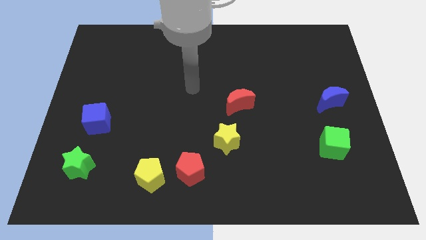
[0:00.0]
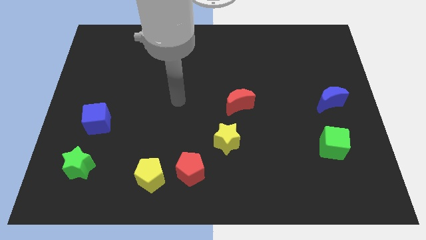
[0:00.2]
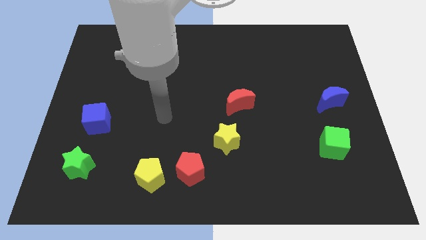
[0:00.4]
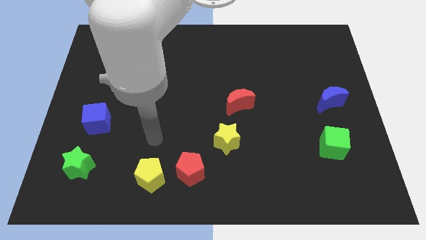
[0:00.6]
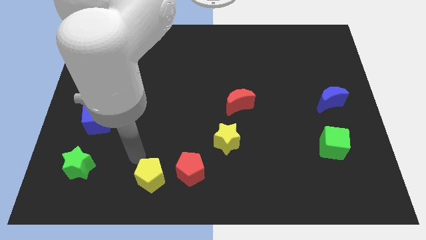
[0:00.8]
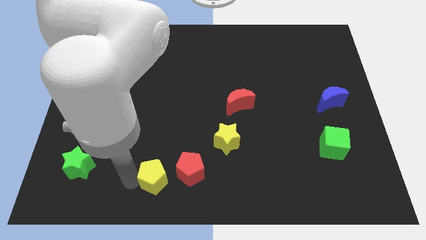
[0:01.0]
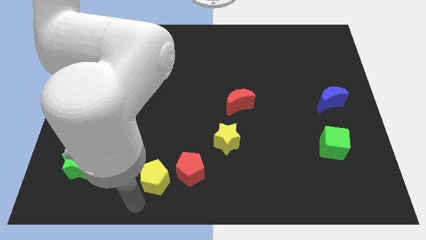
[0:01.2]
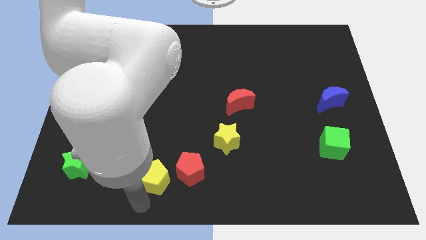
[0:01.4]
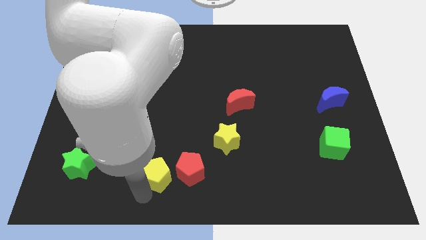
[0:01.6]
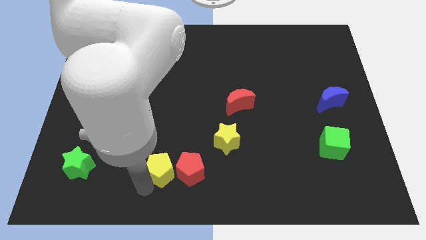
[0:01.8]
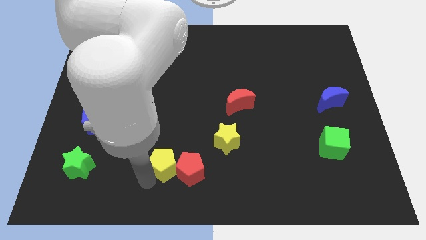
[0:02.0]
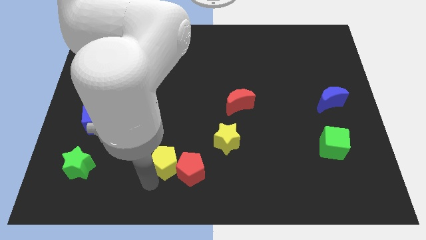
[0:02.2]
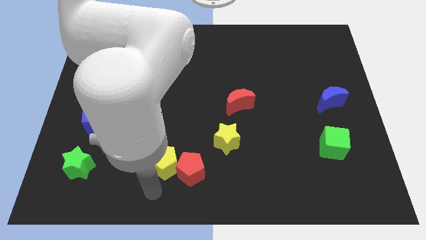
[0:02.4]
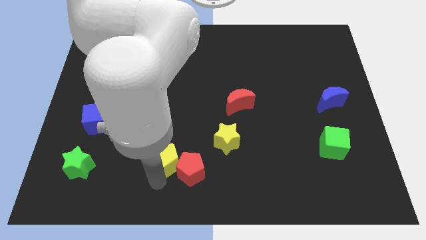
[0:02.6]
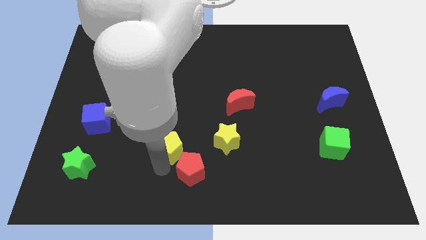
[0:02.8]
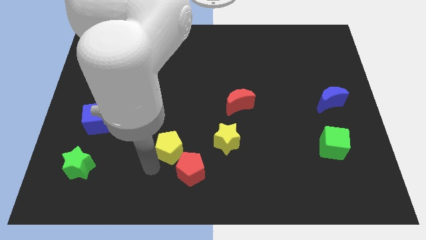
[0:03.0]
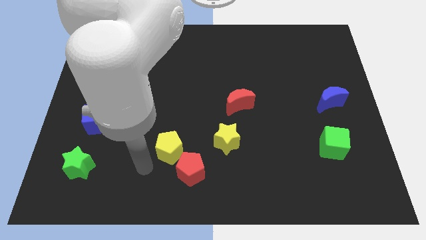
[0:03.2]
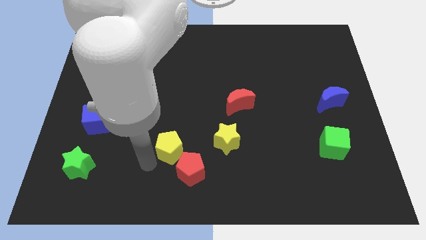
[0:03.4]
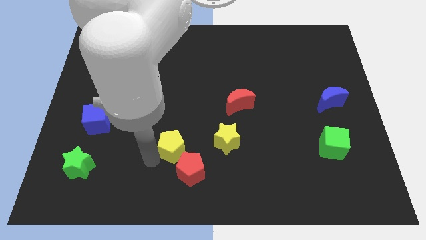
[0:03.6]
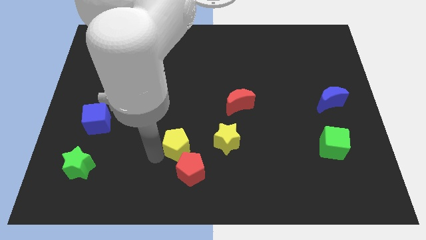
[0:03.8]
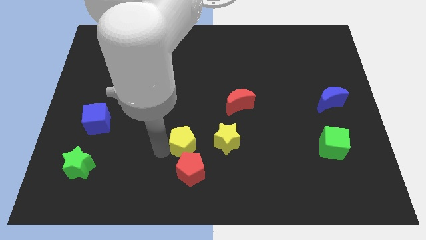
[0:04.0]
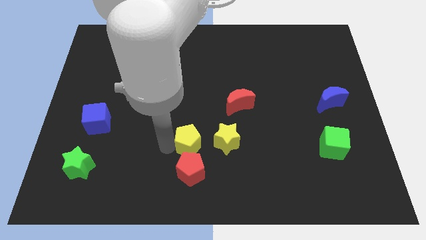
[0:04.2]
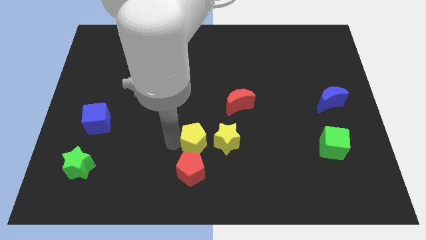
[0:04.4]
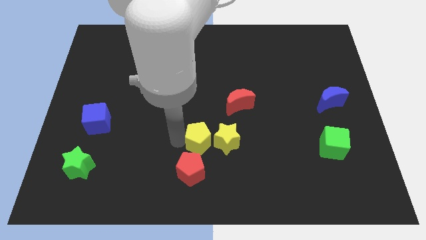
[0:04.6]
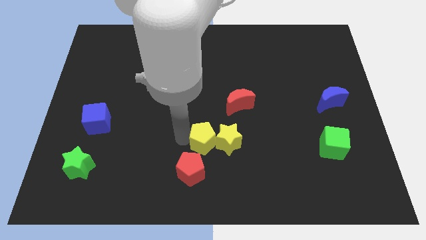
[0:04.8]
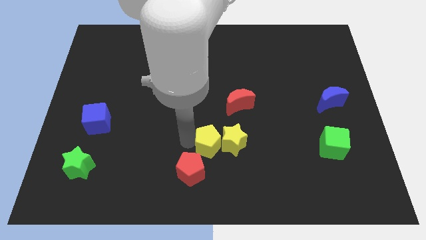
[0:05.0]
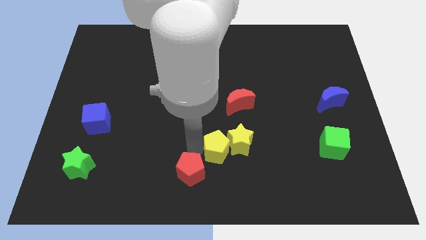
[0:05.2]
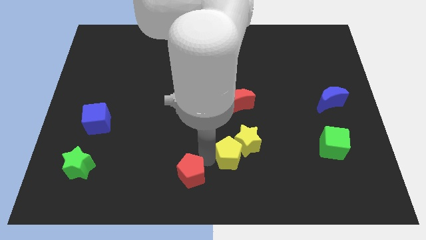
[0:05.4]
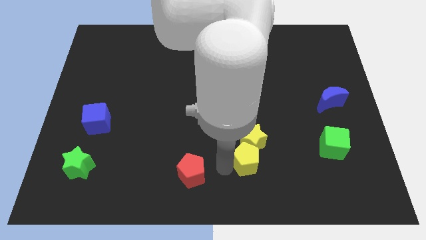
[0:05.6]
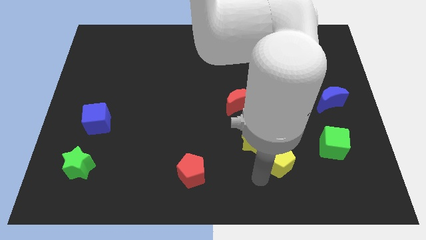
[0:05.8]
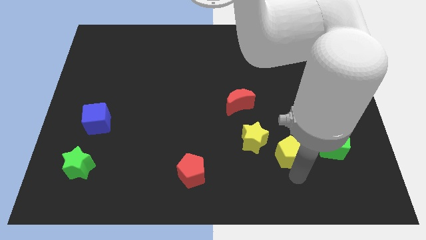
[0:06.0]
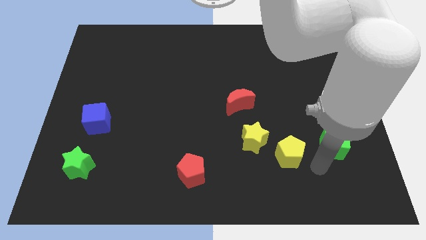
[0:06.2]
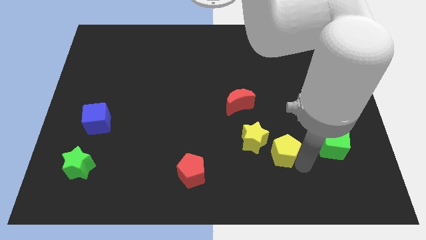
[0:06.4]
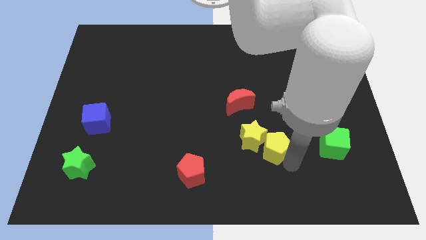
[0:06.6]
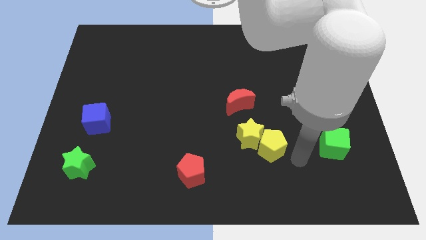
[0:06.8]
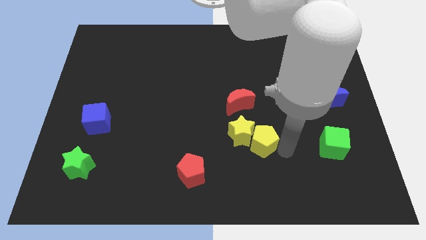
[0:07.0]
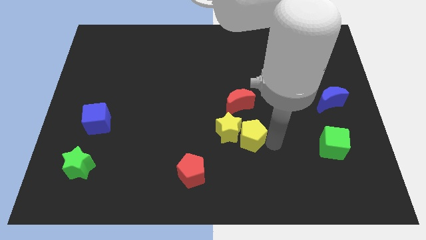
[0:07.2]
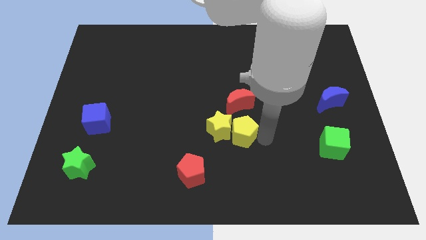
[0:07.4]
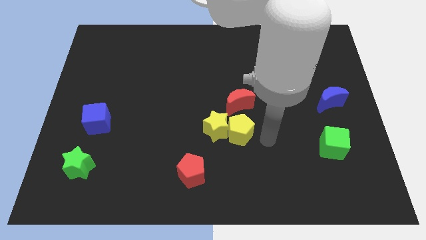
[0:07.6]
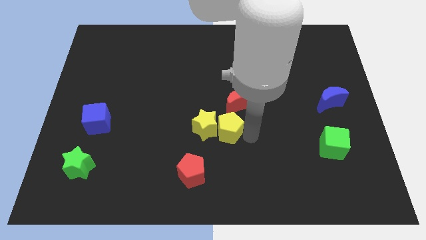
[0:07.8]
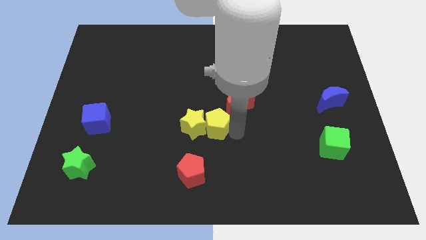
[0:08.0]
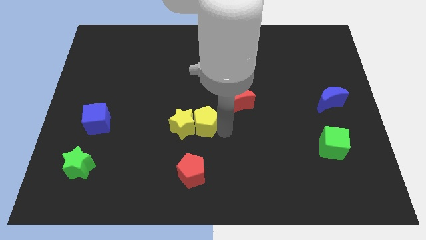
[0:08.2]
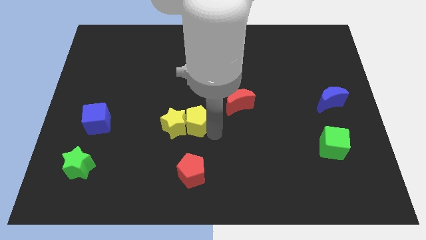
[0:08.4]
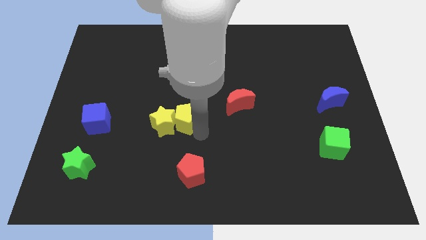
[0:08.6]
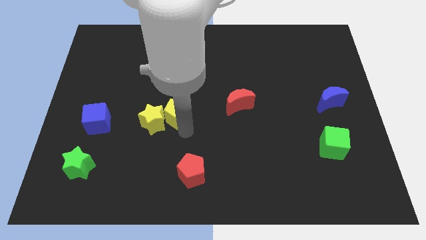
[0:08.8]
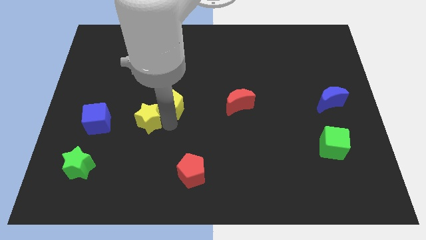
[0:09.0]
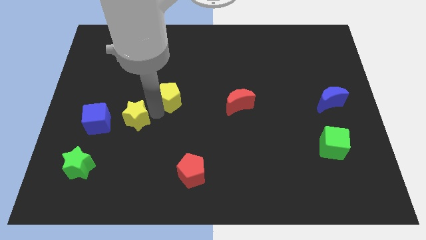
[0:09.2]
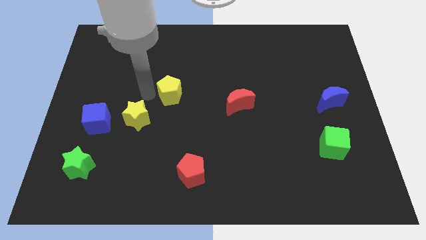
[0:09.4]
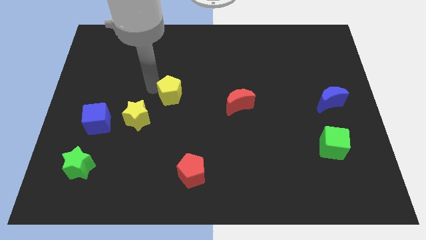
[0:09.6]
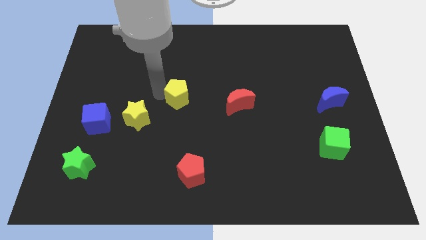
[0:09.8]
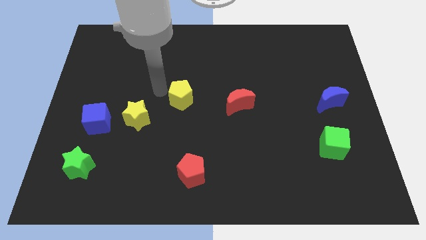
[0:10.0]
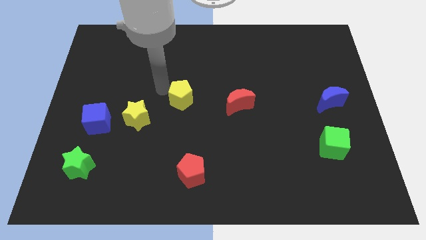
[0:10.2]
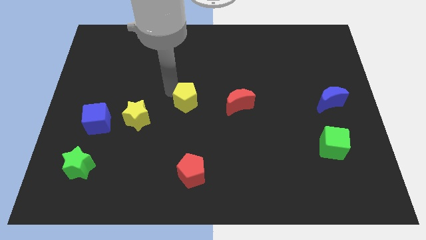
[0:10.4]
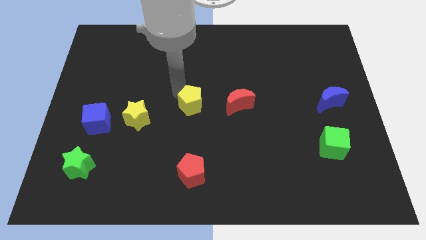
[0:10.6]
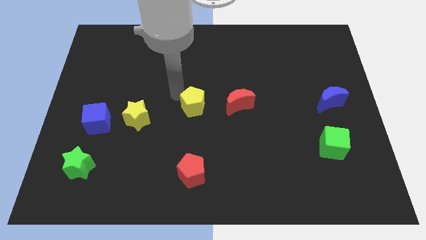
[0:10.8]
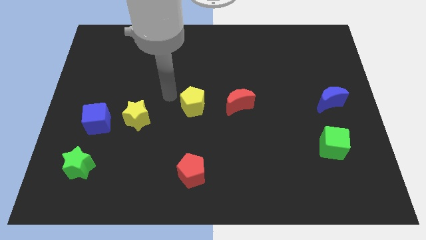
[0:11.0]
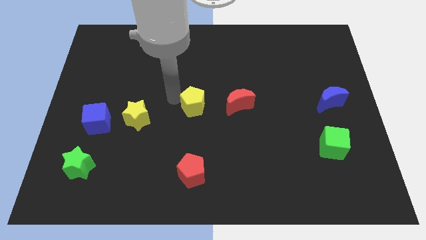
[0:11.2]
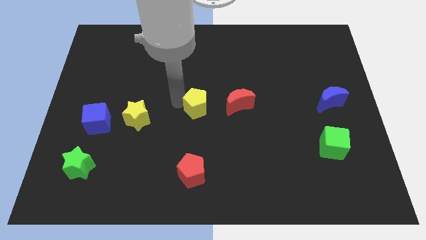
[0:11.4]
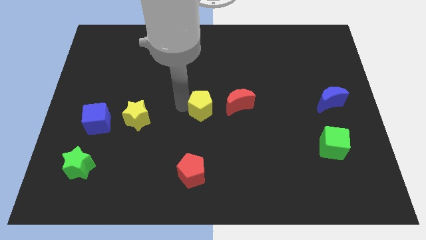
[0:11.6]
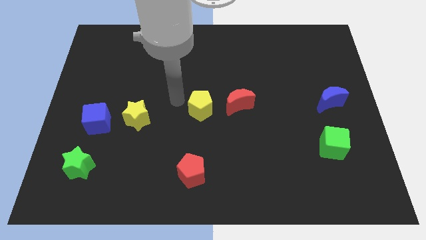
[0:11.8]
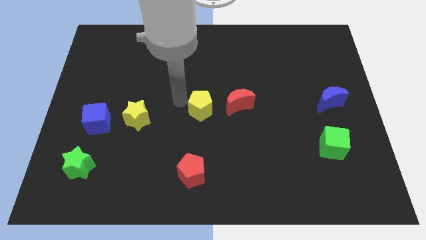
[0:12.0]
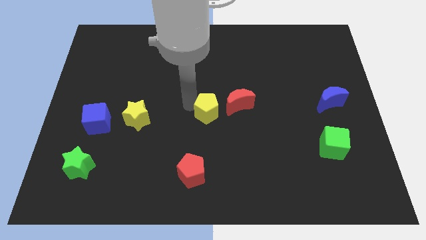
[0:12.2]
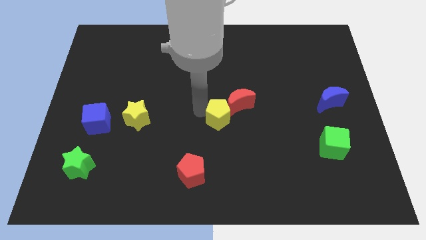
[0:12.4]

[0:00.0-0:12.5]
push the yellow pentagon to the red moon
